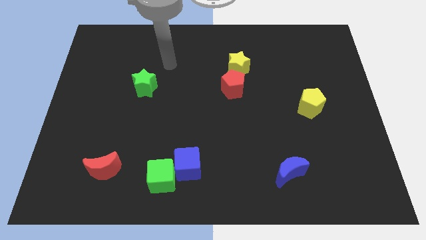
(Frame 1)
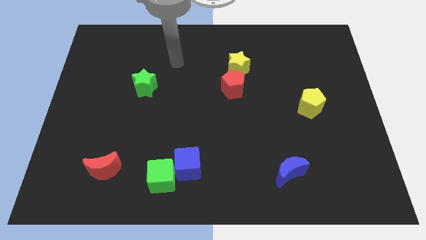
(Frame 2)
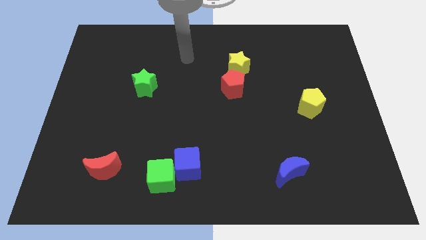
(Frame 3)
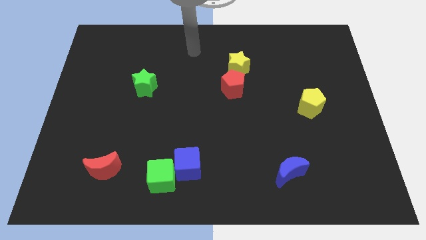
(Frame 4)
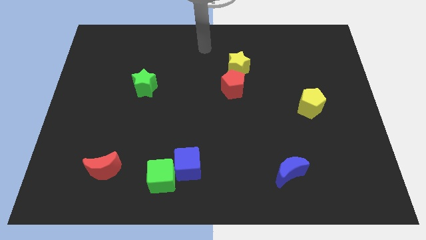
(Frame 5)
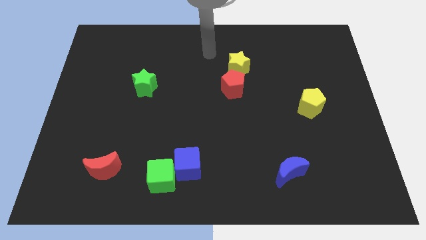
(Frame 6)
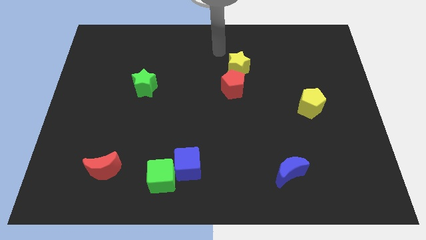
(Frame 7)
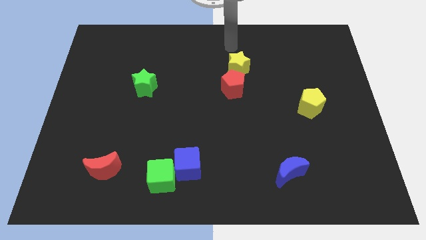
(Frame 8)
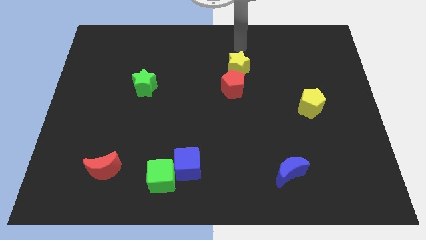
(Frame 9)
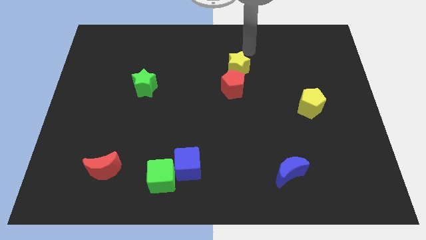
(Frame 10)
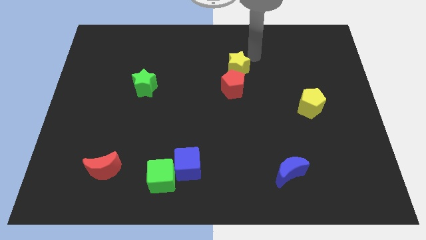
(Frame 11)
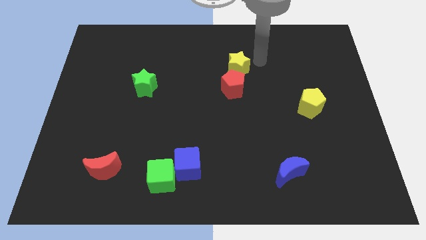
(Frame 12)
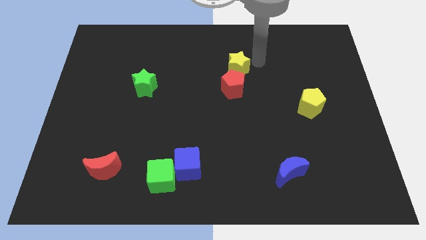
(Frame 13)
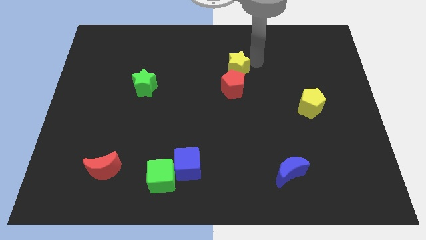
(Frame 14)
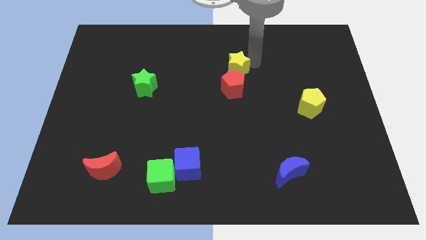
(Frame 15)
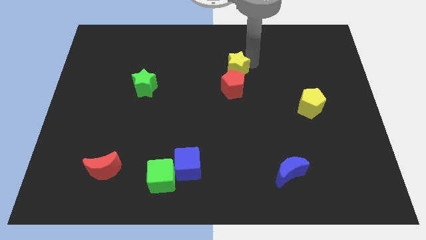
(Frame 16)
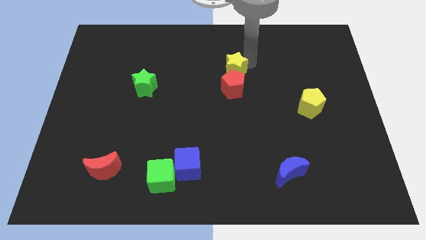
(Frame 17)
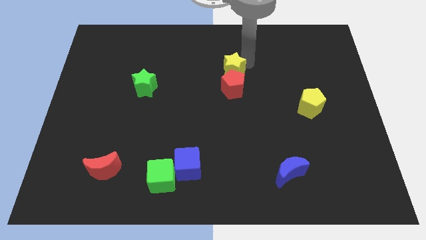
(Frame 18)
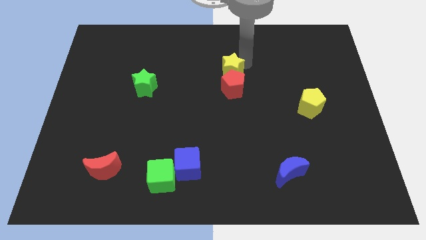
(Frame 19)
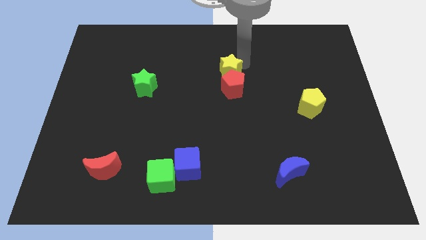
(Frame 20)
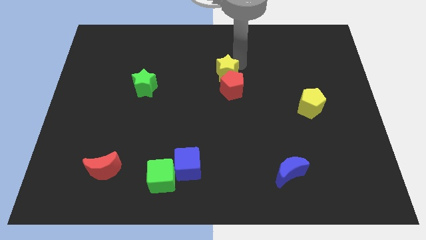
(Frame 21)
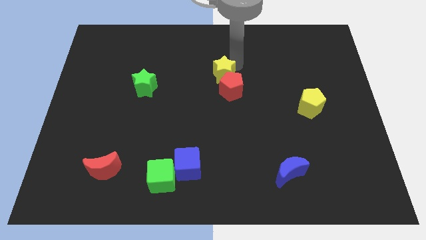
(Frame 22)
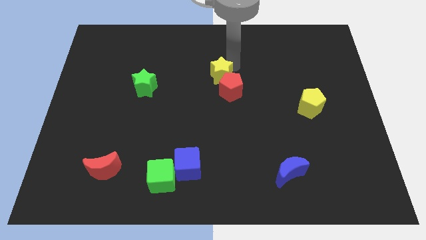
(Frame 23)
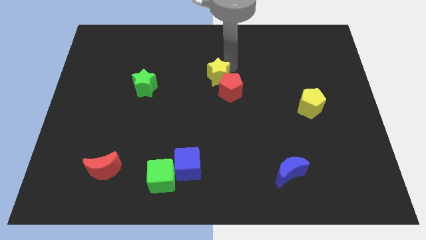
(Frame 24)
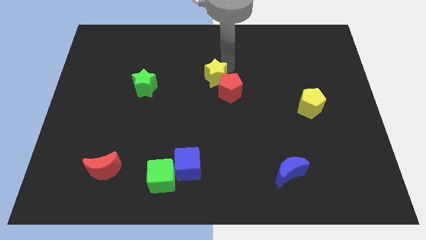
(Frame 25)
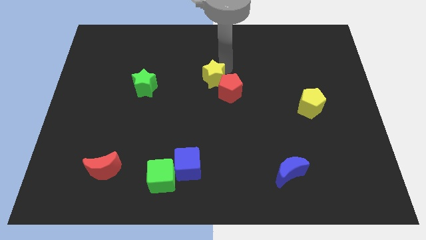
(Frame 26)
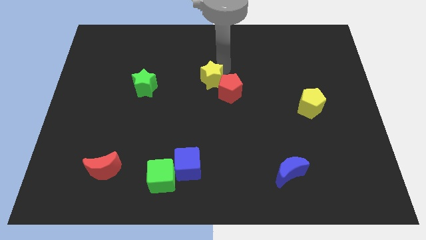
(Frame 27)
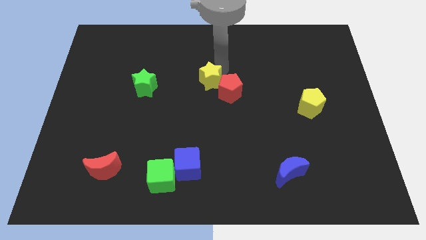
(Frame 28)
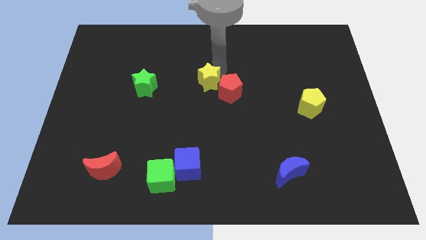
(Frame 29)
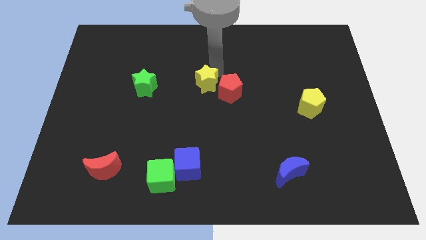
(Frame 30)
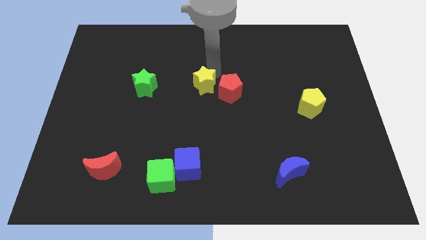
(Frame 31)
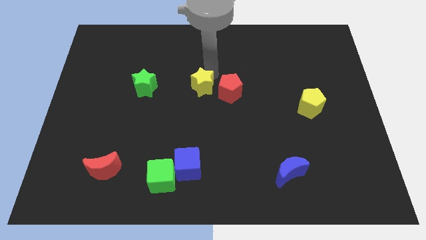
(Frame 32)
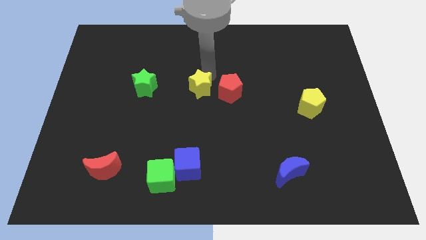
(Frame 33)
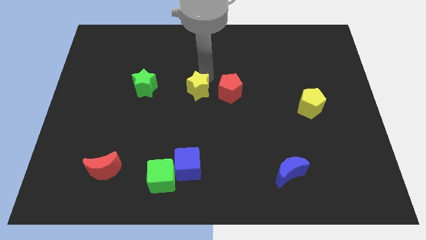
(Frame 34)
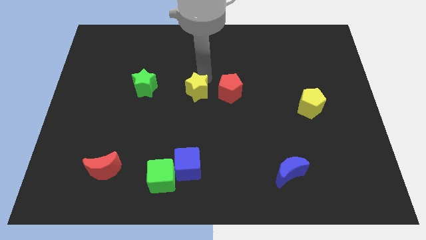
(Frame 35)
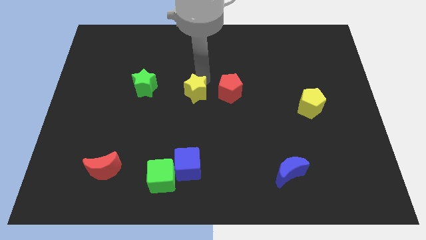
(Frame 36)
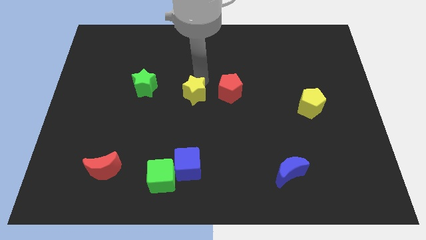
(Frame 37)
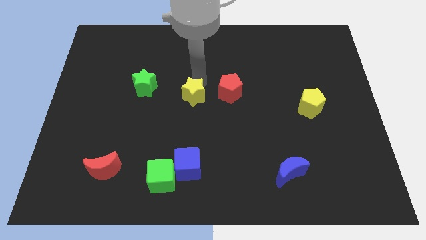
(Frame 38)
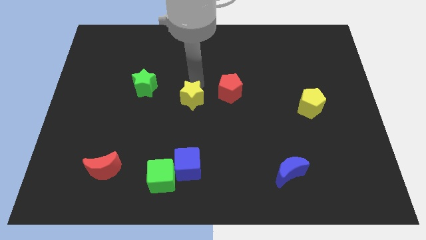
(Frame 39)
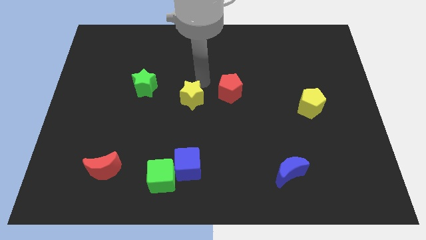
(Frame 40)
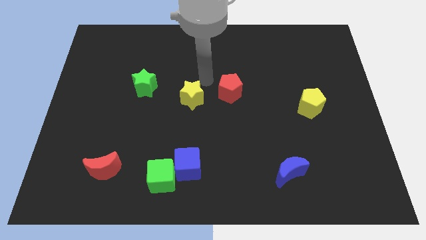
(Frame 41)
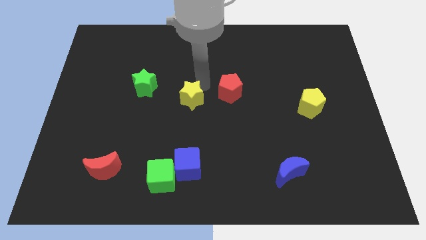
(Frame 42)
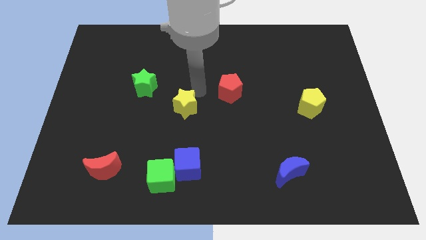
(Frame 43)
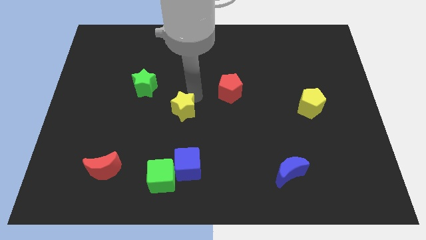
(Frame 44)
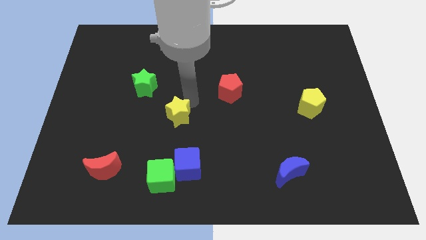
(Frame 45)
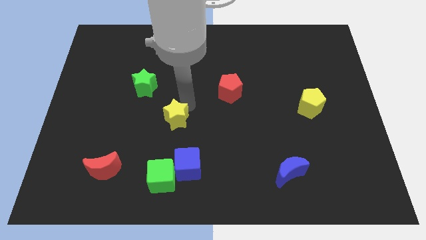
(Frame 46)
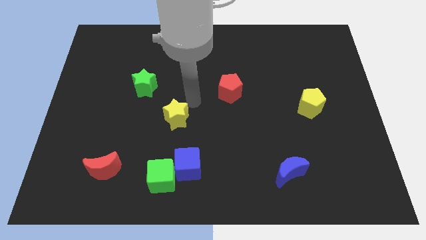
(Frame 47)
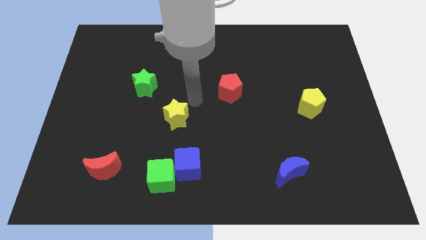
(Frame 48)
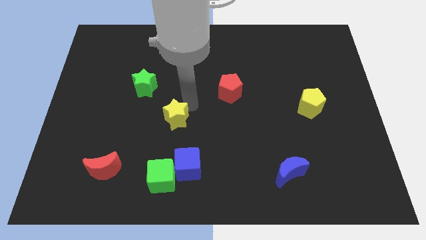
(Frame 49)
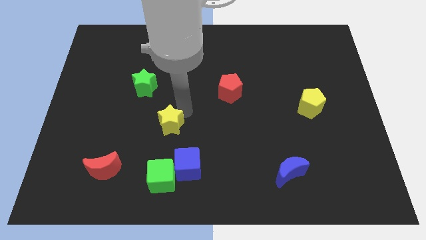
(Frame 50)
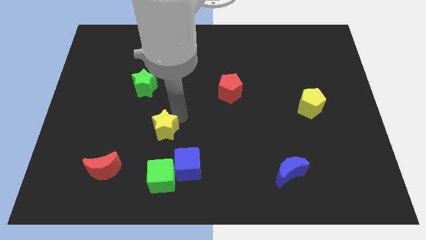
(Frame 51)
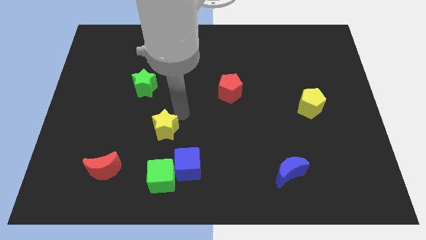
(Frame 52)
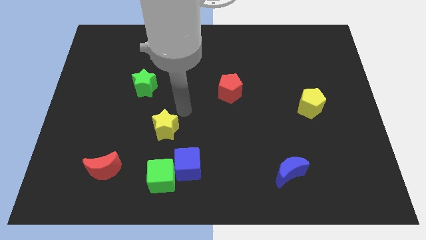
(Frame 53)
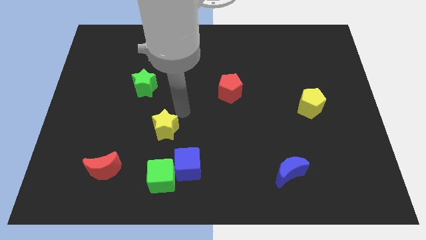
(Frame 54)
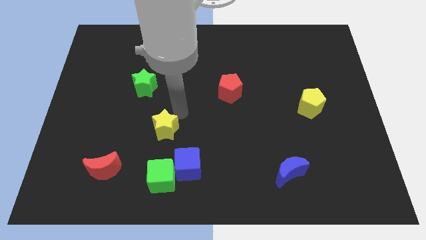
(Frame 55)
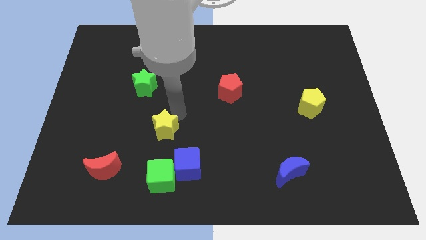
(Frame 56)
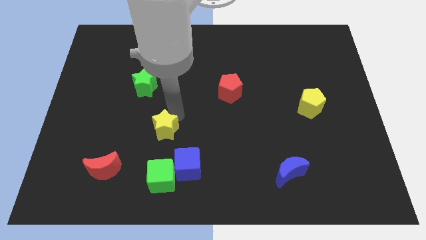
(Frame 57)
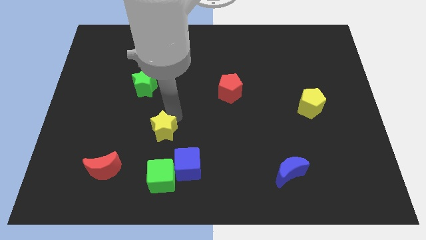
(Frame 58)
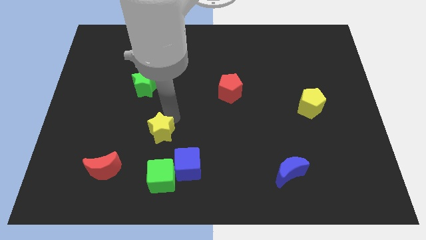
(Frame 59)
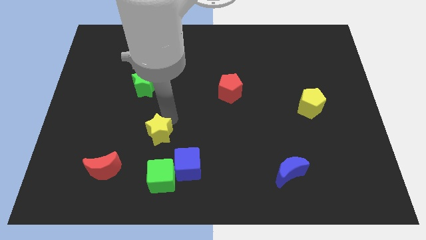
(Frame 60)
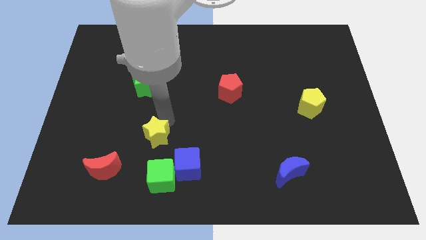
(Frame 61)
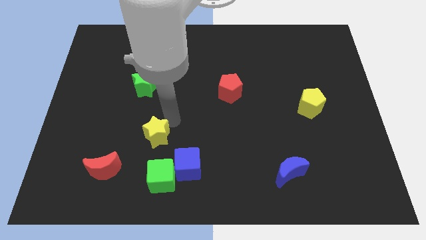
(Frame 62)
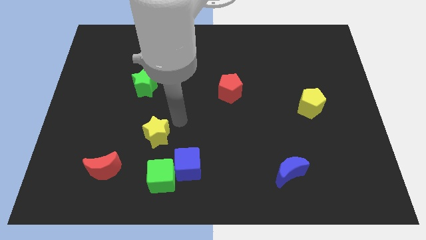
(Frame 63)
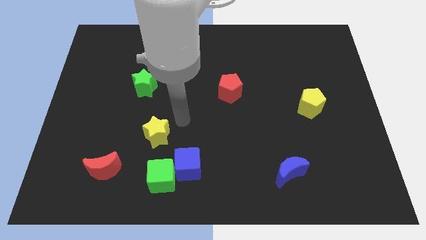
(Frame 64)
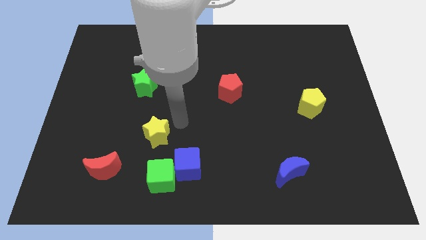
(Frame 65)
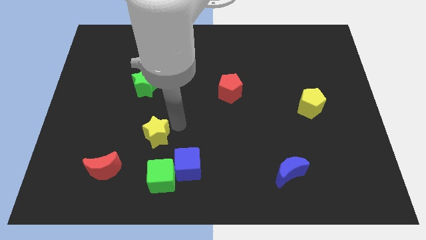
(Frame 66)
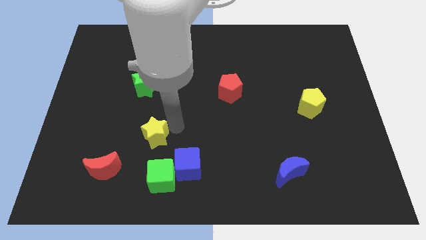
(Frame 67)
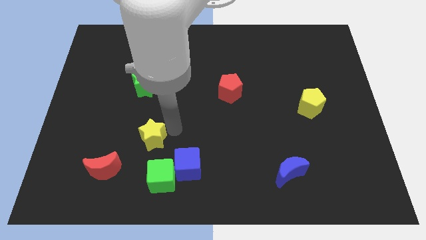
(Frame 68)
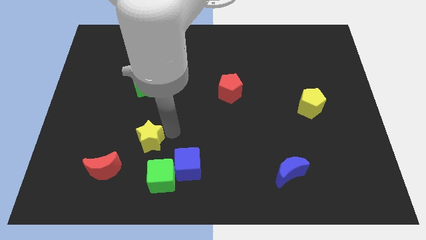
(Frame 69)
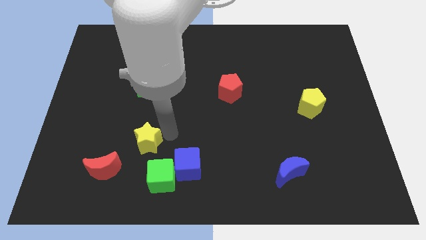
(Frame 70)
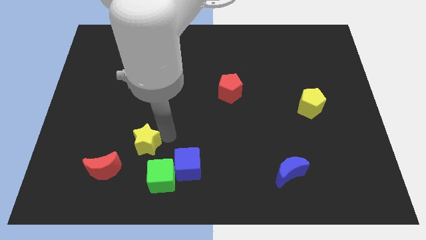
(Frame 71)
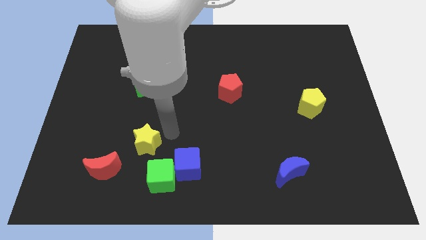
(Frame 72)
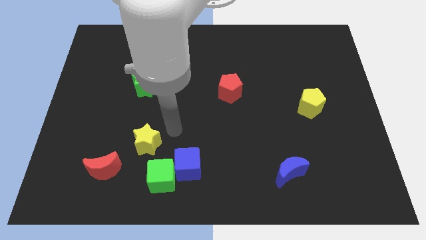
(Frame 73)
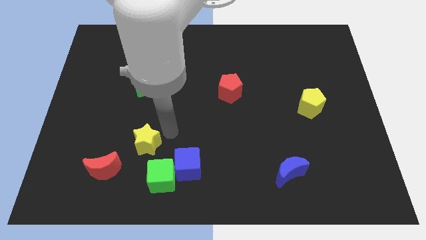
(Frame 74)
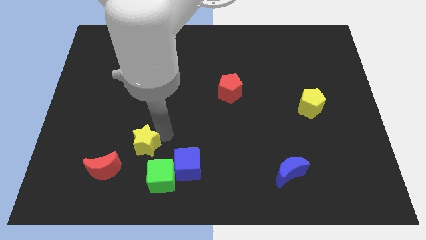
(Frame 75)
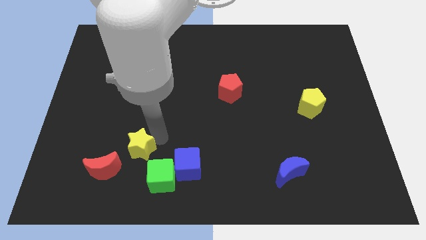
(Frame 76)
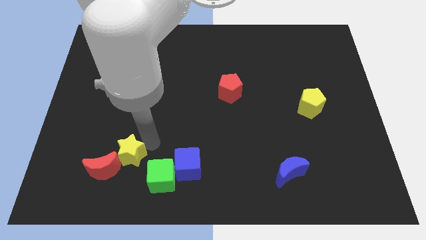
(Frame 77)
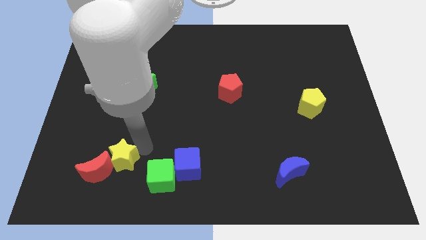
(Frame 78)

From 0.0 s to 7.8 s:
put the yellow star to the red moon

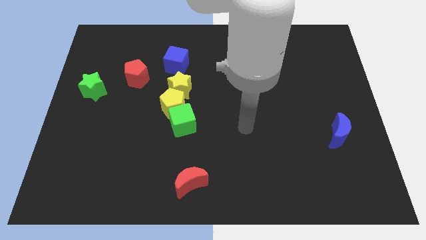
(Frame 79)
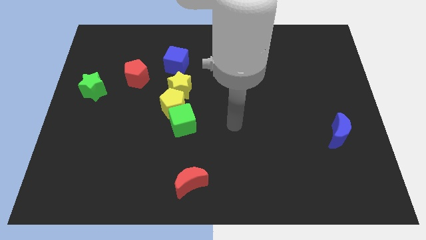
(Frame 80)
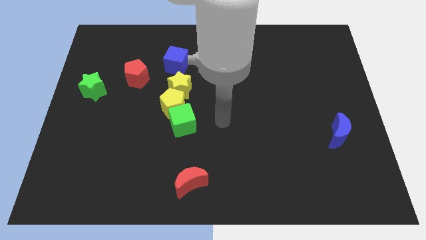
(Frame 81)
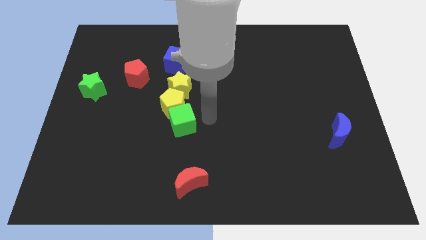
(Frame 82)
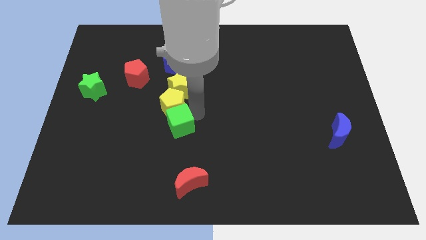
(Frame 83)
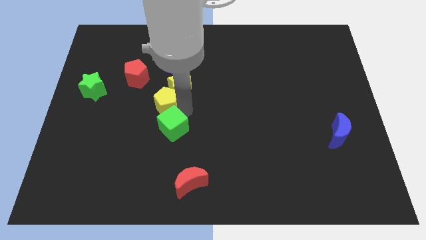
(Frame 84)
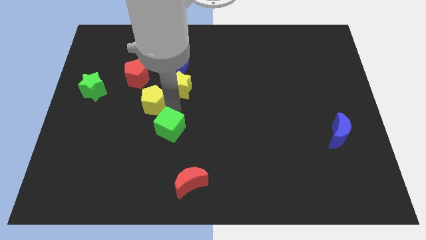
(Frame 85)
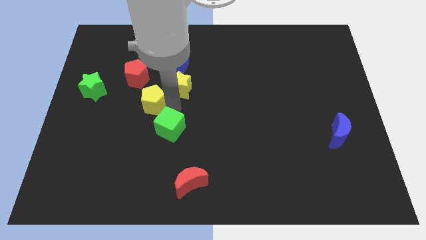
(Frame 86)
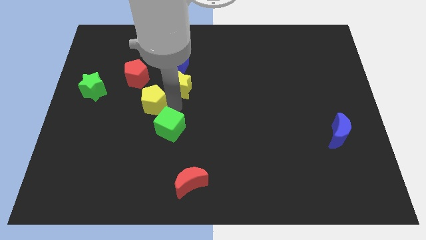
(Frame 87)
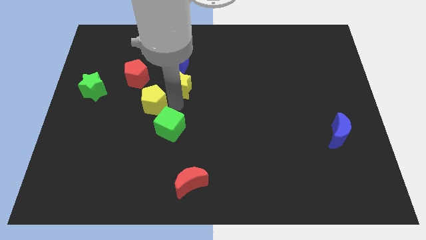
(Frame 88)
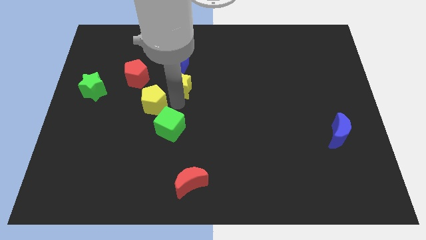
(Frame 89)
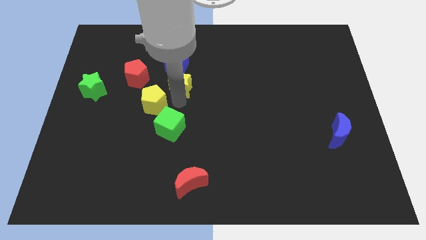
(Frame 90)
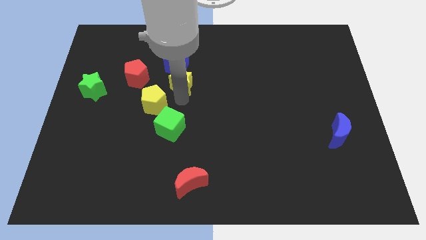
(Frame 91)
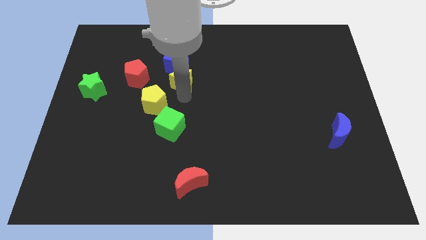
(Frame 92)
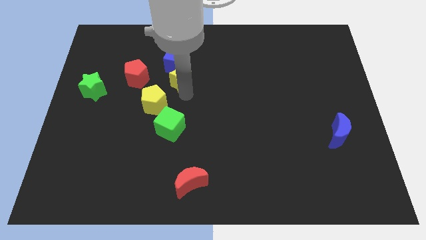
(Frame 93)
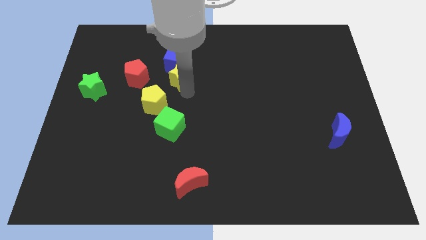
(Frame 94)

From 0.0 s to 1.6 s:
put the yellow star towards the blue cube
